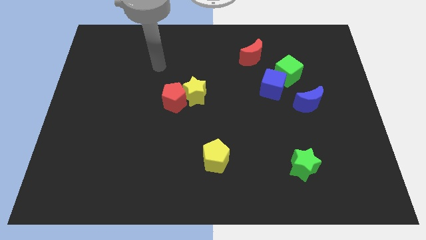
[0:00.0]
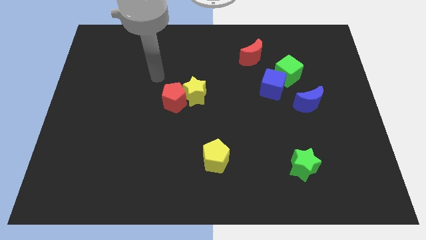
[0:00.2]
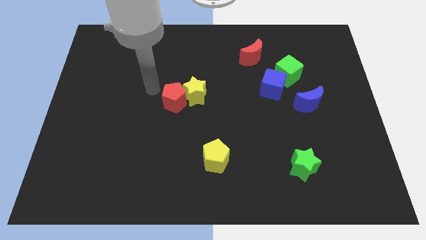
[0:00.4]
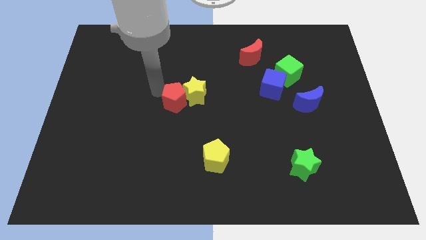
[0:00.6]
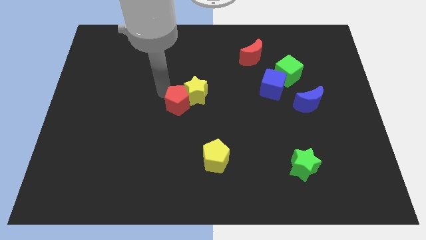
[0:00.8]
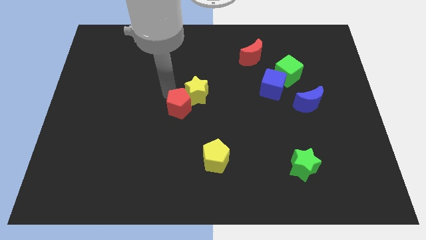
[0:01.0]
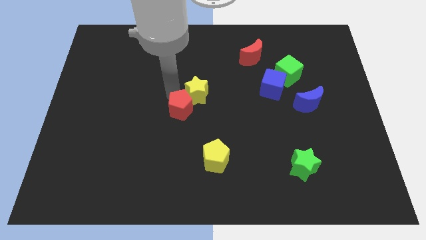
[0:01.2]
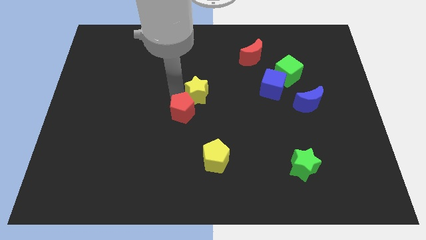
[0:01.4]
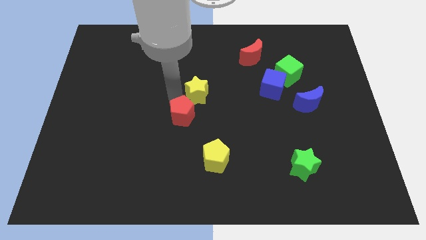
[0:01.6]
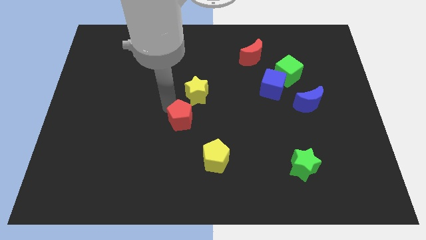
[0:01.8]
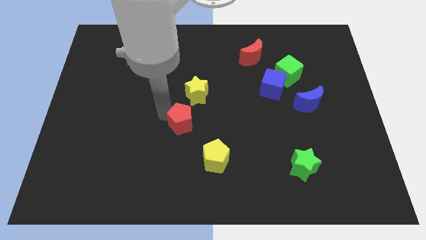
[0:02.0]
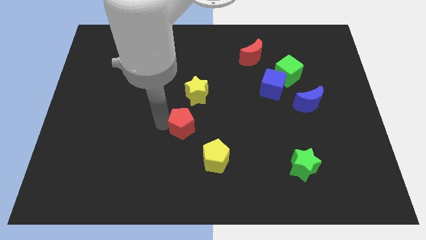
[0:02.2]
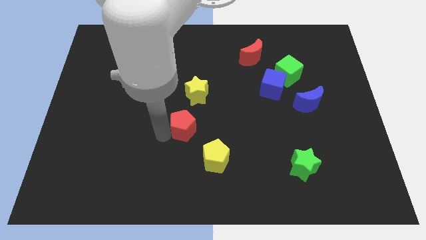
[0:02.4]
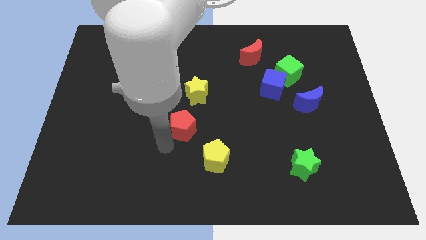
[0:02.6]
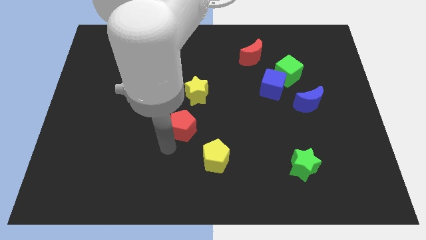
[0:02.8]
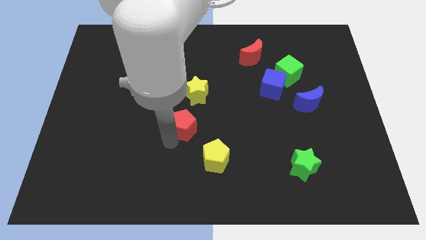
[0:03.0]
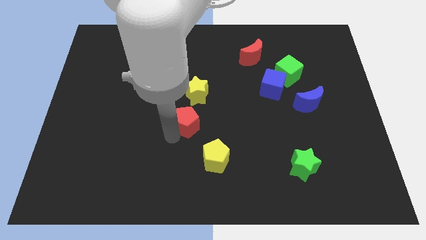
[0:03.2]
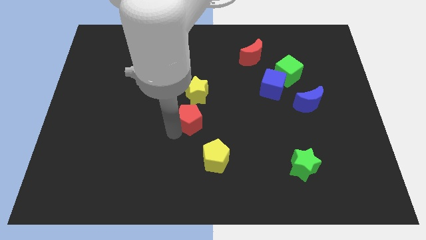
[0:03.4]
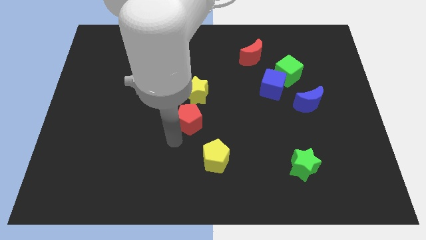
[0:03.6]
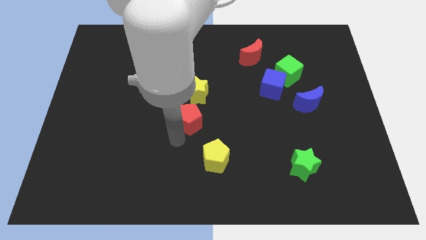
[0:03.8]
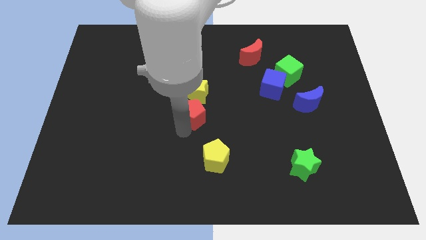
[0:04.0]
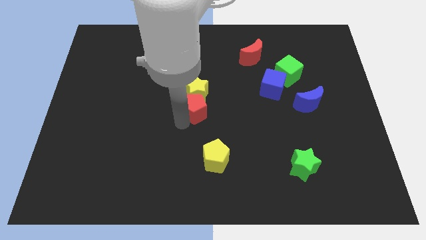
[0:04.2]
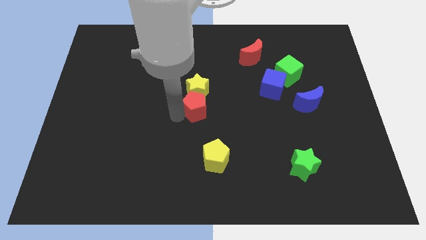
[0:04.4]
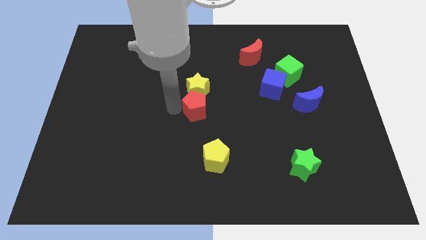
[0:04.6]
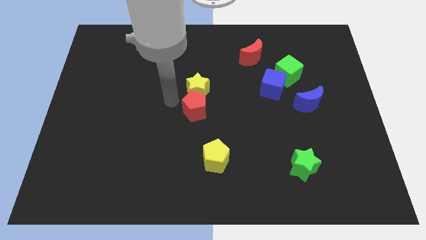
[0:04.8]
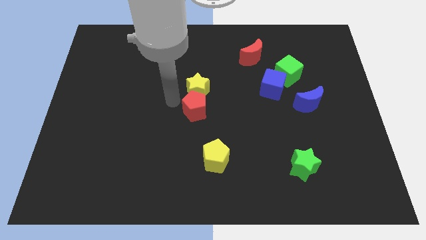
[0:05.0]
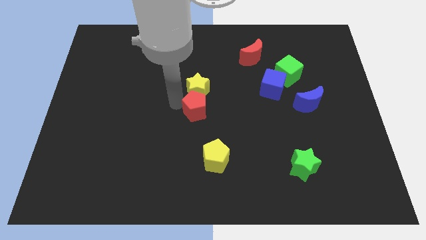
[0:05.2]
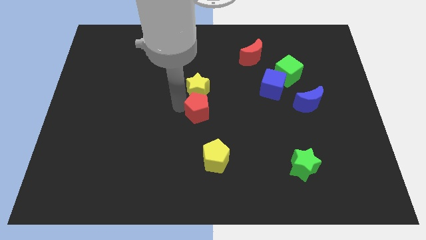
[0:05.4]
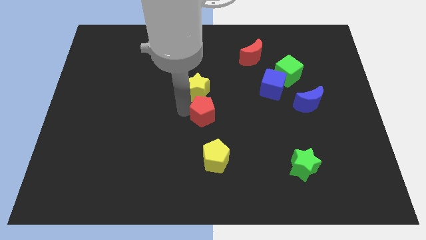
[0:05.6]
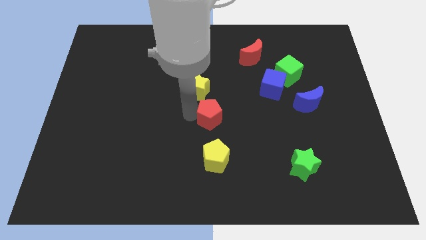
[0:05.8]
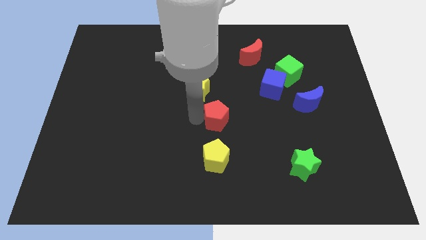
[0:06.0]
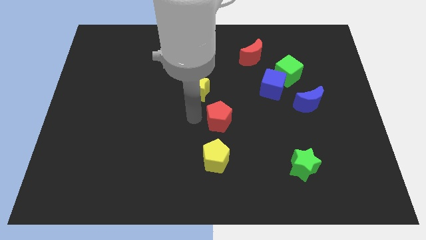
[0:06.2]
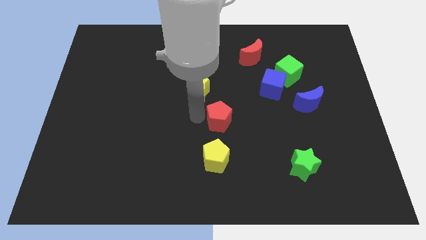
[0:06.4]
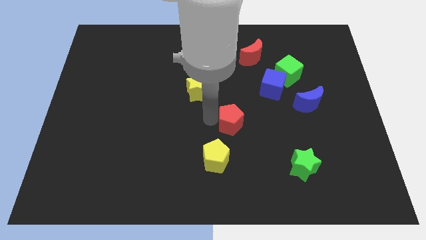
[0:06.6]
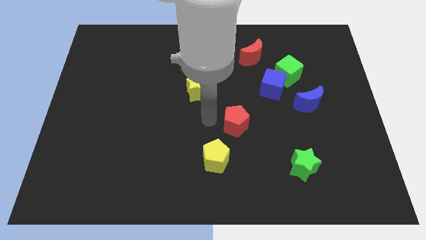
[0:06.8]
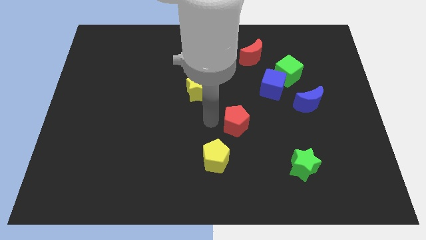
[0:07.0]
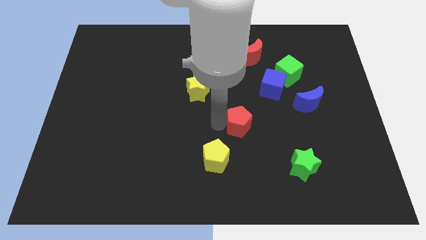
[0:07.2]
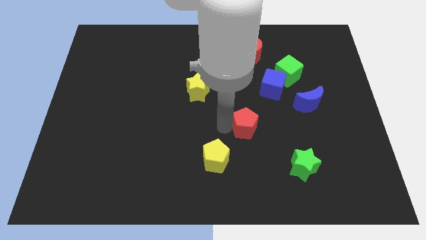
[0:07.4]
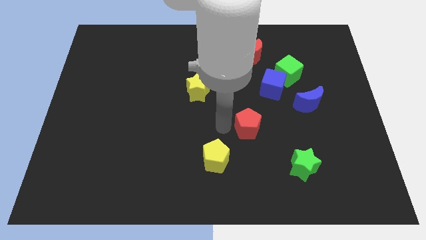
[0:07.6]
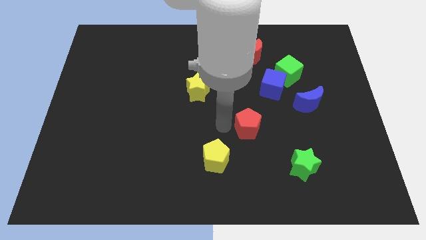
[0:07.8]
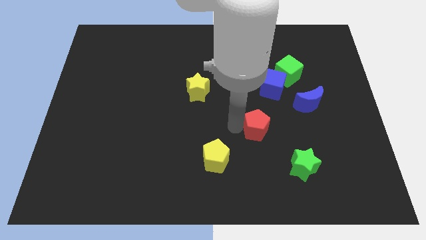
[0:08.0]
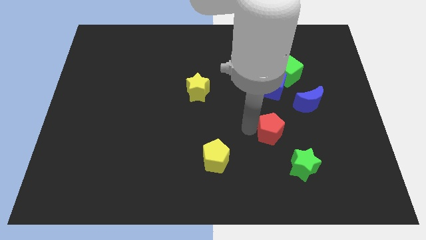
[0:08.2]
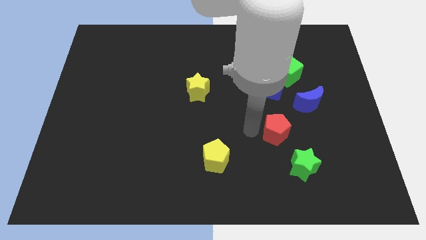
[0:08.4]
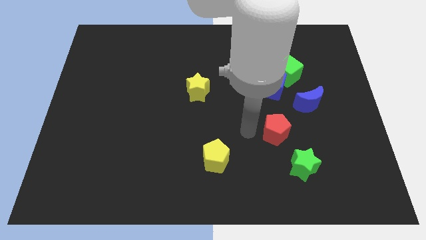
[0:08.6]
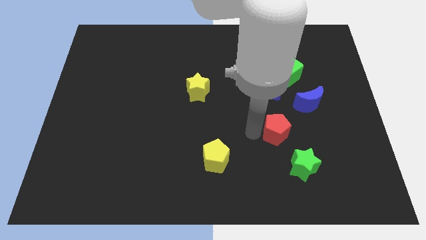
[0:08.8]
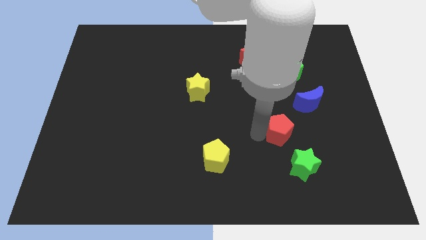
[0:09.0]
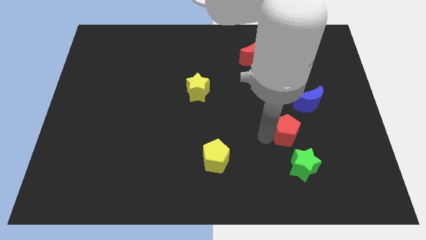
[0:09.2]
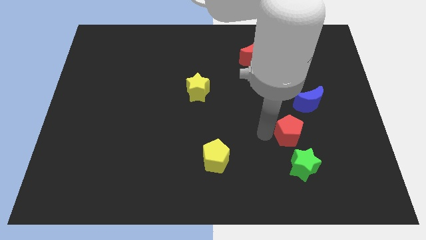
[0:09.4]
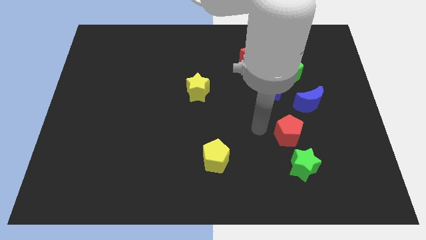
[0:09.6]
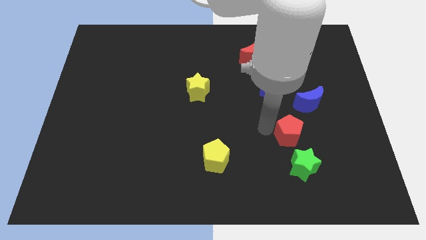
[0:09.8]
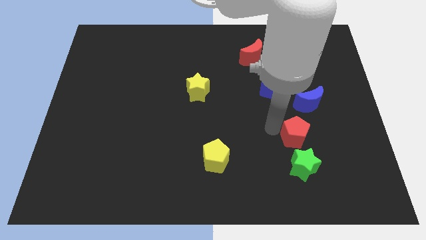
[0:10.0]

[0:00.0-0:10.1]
slide the red pentagon below the blue moon

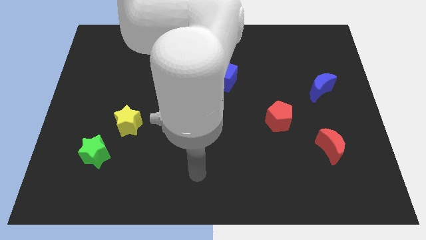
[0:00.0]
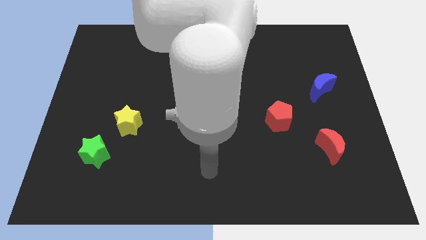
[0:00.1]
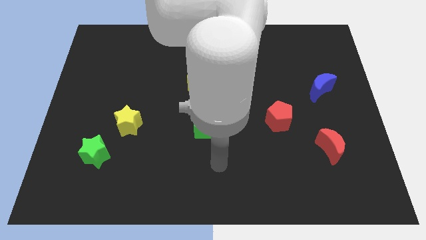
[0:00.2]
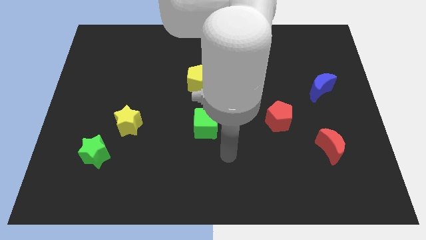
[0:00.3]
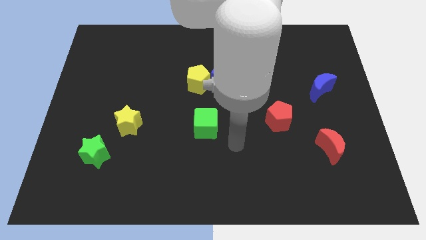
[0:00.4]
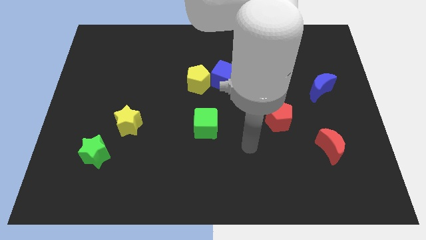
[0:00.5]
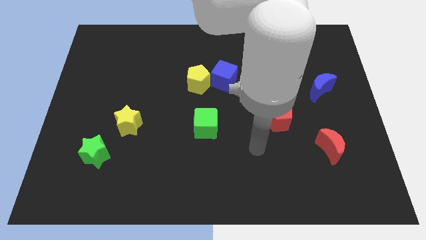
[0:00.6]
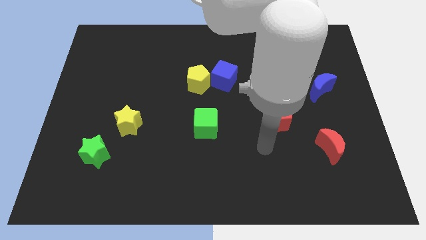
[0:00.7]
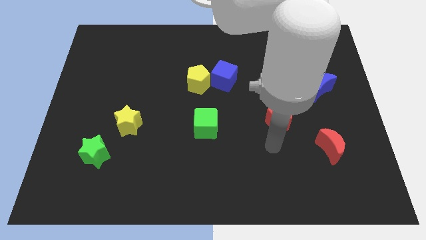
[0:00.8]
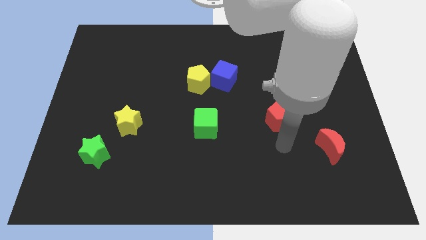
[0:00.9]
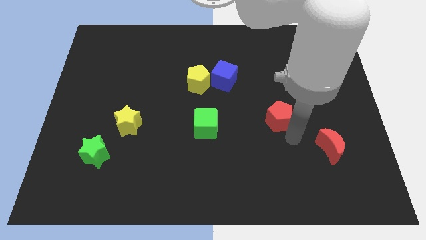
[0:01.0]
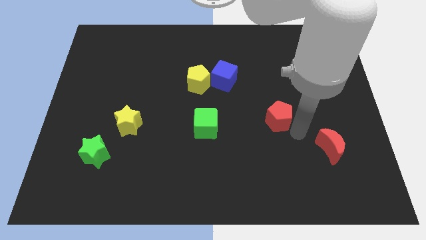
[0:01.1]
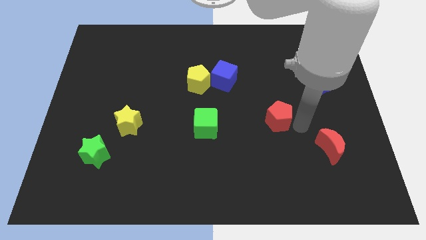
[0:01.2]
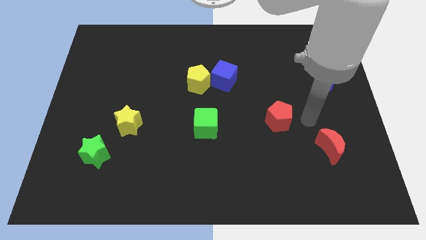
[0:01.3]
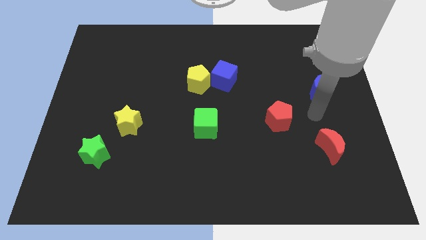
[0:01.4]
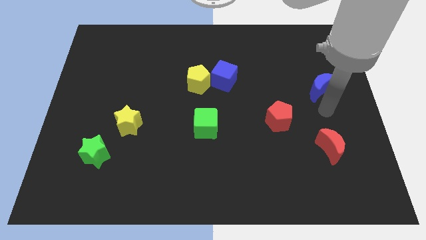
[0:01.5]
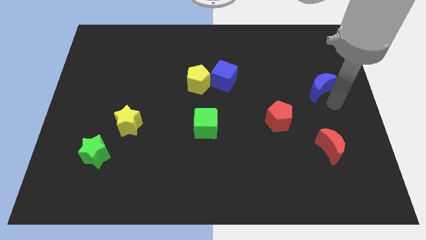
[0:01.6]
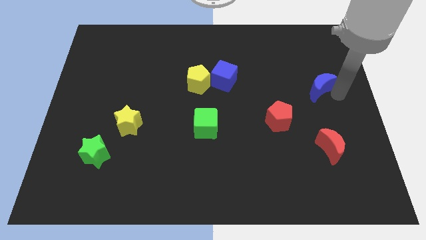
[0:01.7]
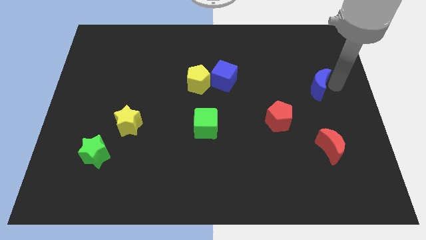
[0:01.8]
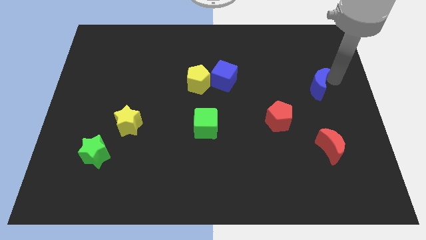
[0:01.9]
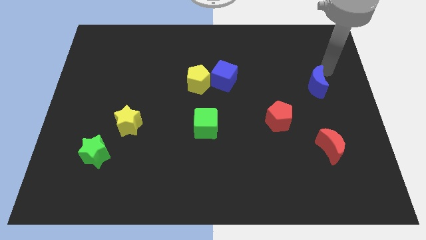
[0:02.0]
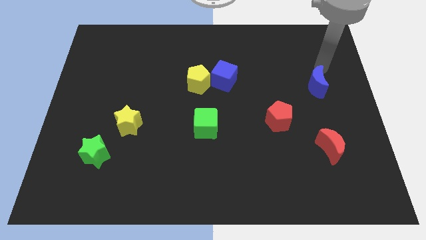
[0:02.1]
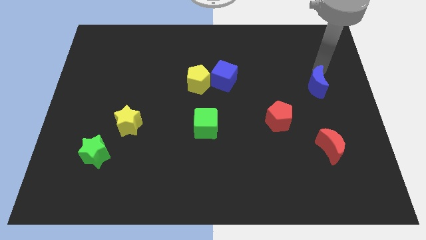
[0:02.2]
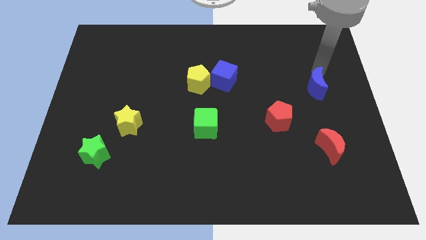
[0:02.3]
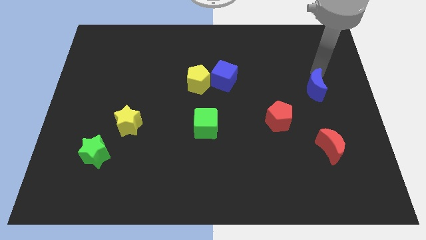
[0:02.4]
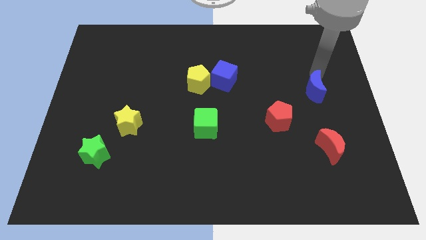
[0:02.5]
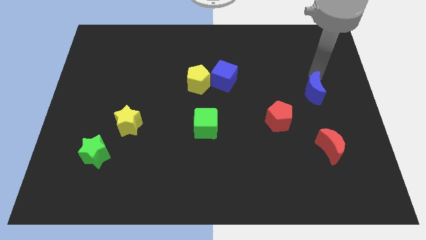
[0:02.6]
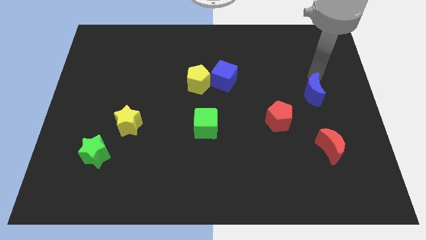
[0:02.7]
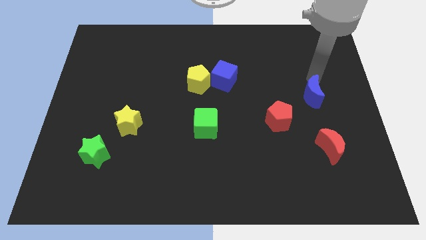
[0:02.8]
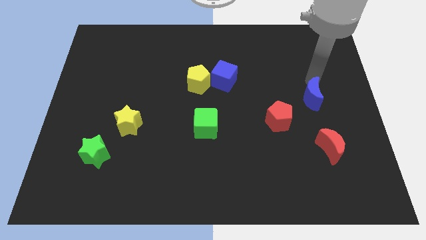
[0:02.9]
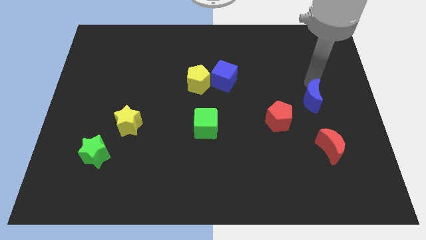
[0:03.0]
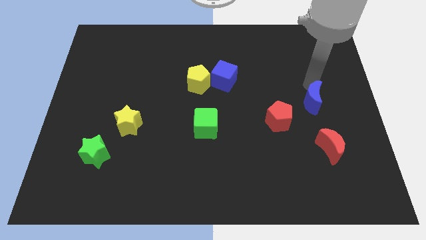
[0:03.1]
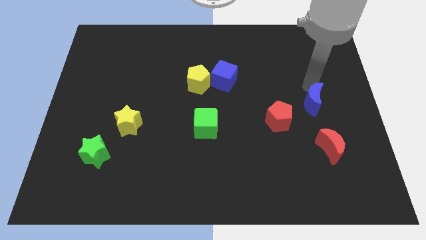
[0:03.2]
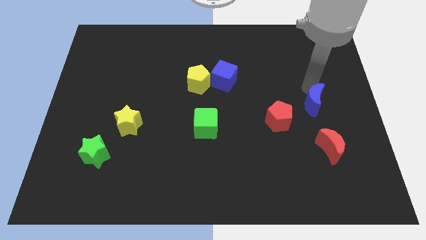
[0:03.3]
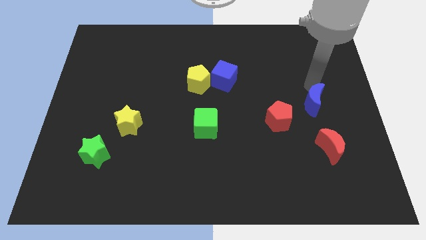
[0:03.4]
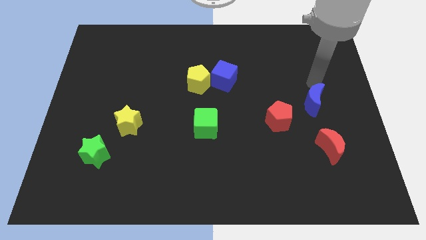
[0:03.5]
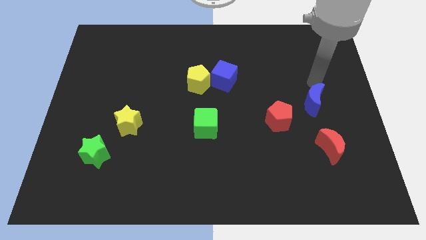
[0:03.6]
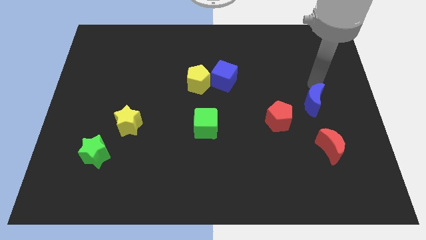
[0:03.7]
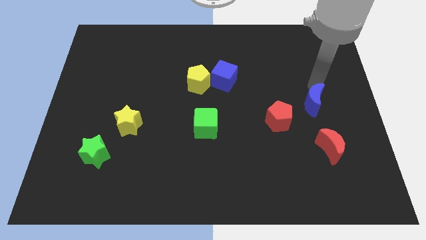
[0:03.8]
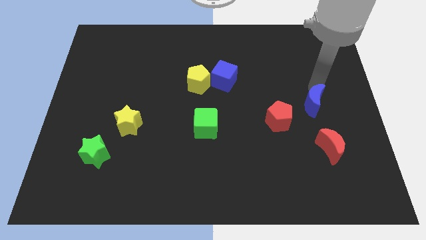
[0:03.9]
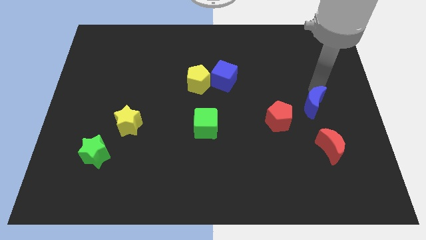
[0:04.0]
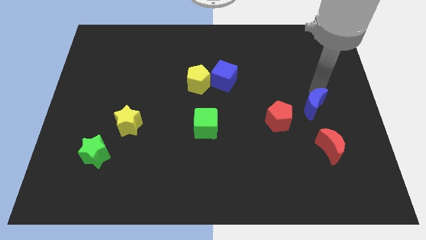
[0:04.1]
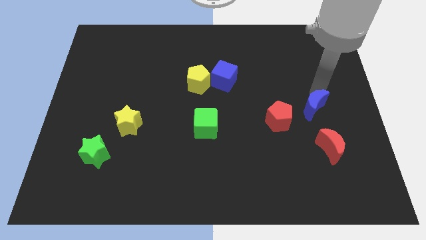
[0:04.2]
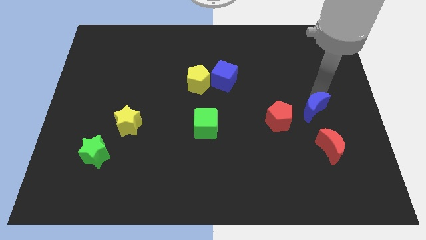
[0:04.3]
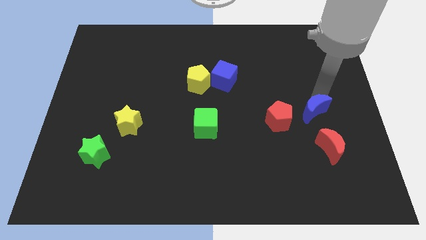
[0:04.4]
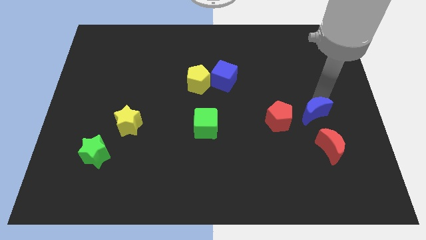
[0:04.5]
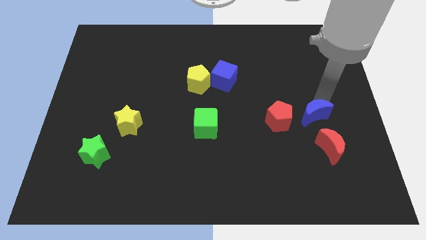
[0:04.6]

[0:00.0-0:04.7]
push the blue moon to the top left side of the red moon
